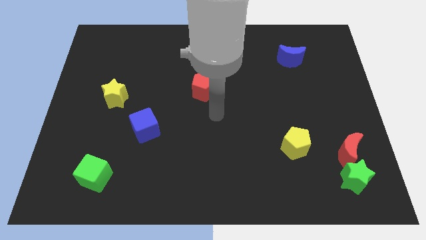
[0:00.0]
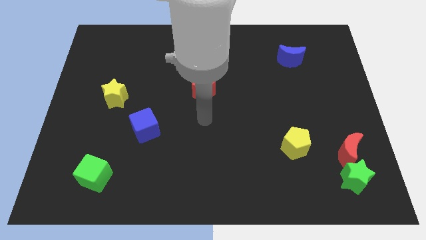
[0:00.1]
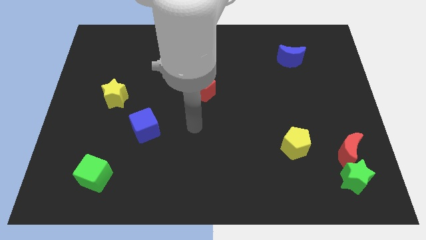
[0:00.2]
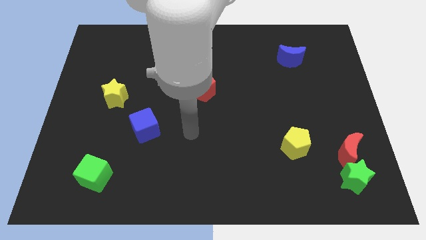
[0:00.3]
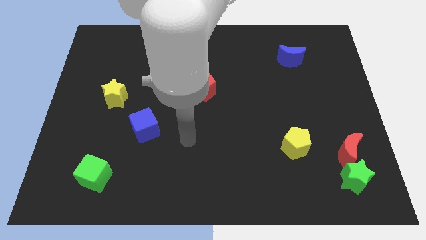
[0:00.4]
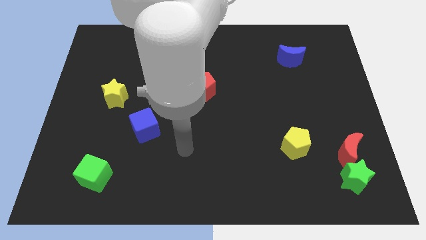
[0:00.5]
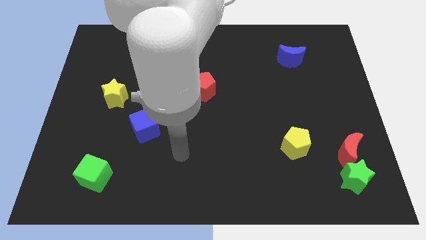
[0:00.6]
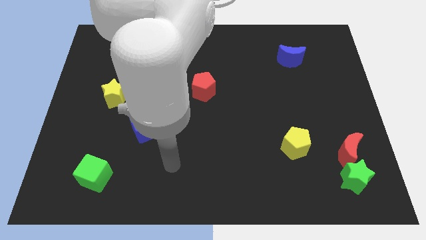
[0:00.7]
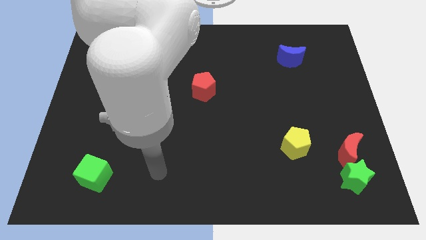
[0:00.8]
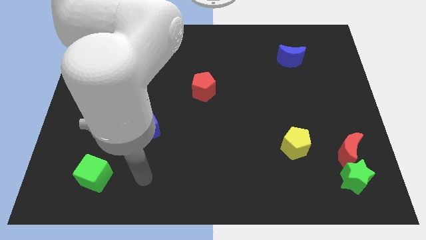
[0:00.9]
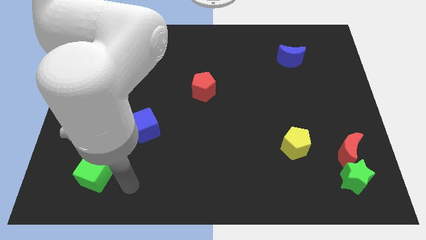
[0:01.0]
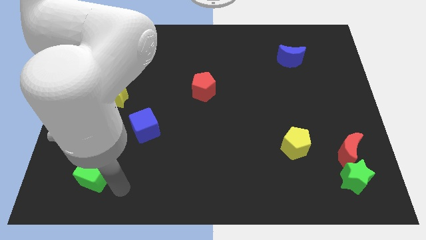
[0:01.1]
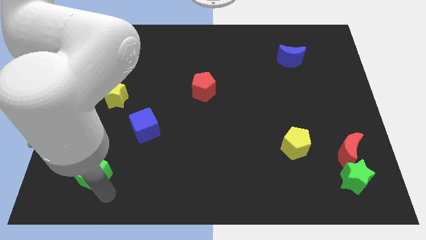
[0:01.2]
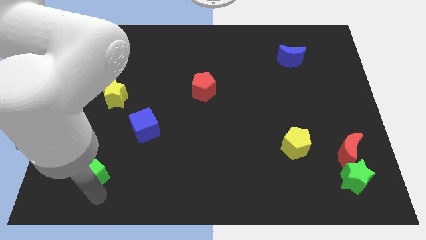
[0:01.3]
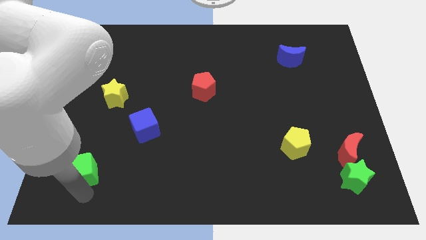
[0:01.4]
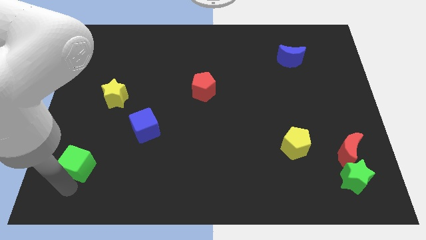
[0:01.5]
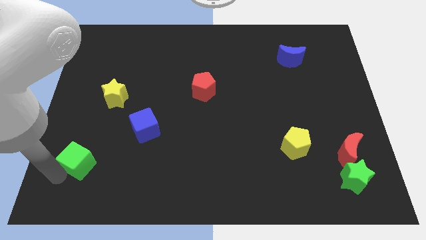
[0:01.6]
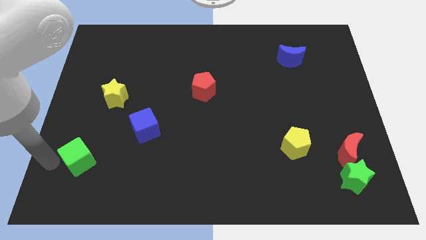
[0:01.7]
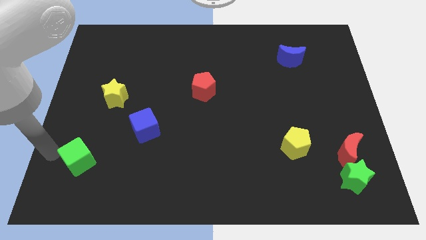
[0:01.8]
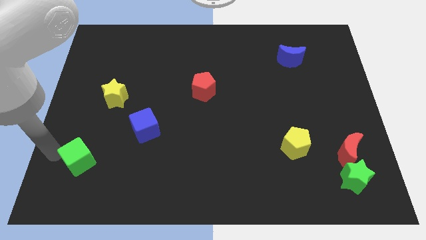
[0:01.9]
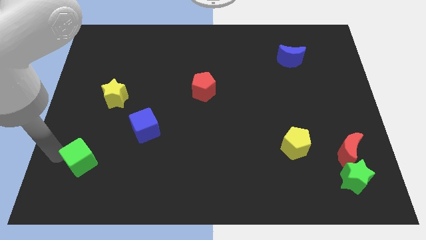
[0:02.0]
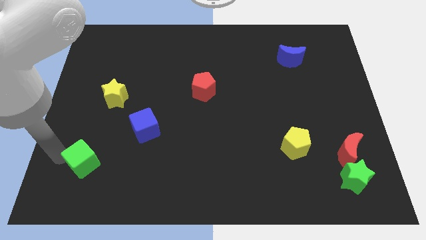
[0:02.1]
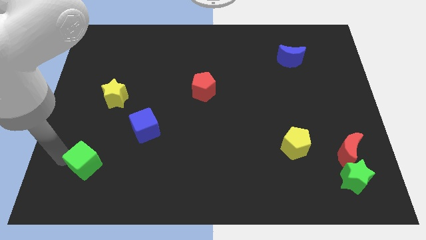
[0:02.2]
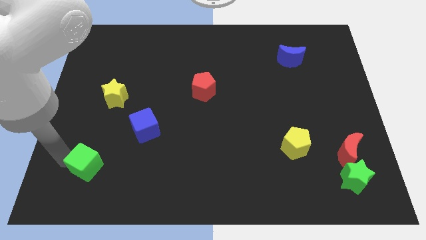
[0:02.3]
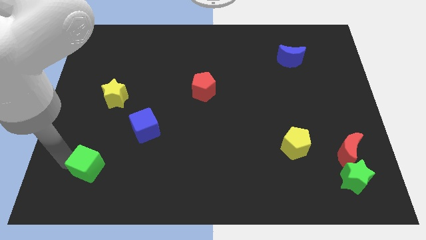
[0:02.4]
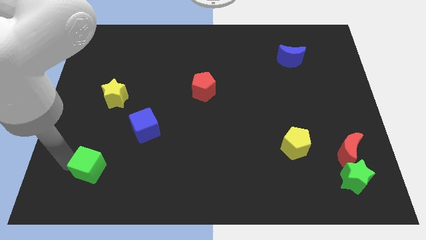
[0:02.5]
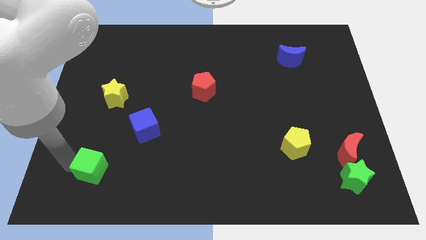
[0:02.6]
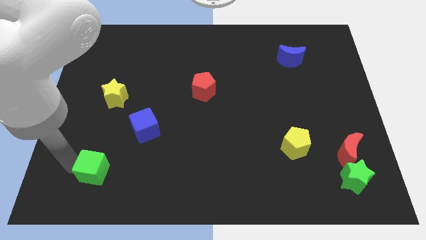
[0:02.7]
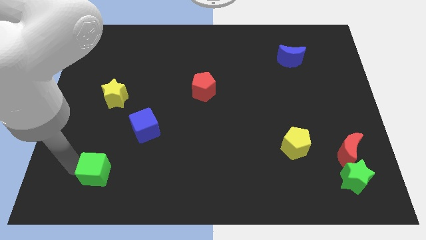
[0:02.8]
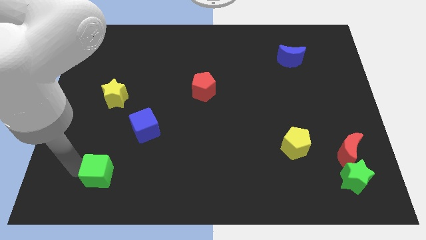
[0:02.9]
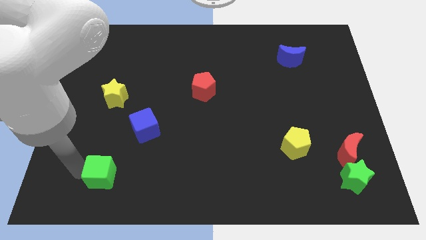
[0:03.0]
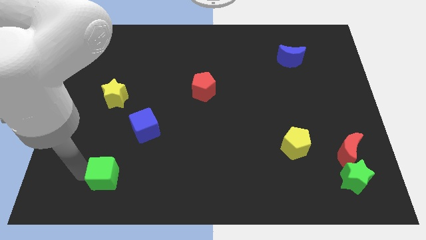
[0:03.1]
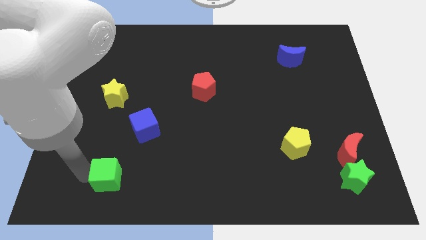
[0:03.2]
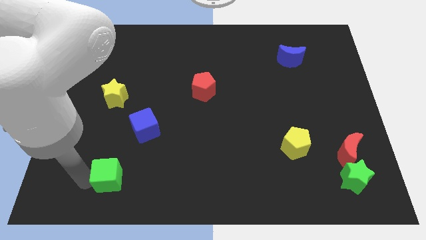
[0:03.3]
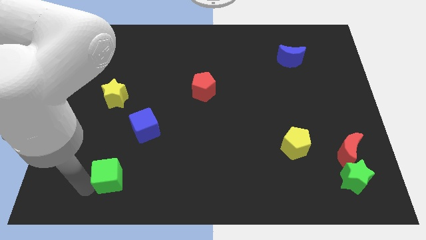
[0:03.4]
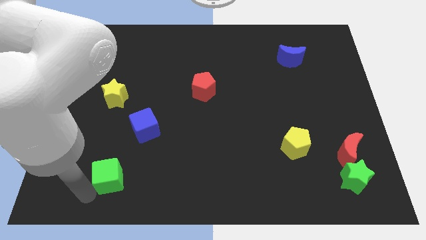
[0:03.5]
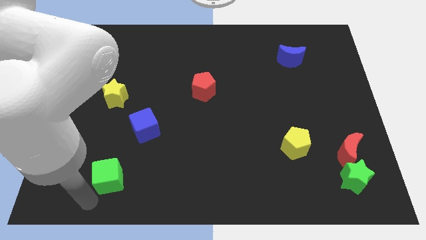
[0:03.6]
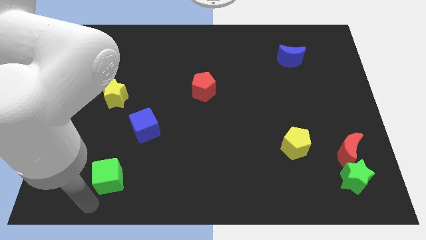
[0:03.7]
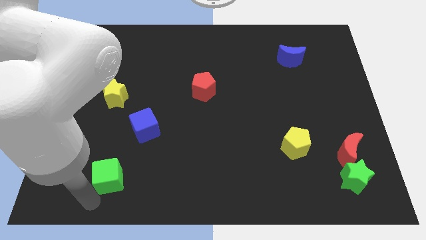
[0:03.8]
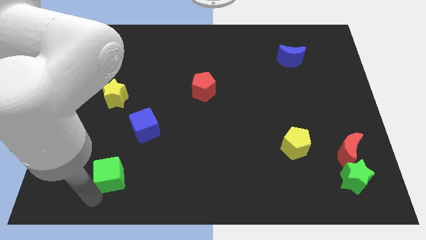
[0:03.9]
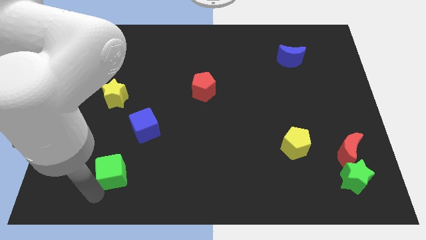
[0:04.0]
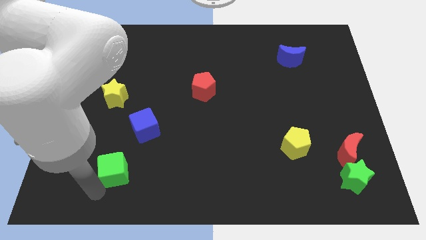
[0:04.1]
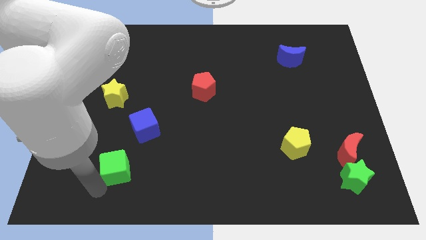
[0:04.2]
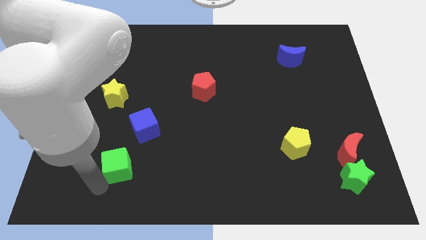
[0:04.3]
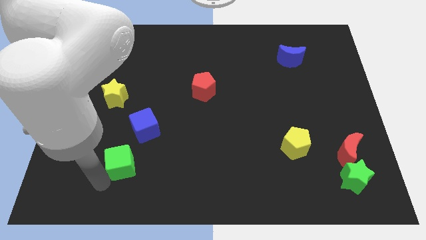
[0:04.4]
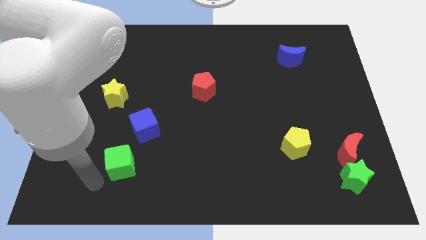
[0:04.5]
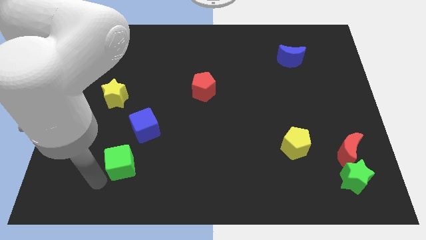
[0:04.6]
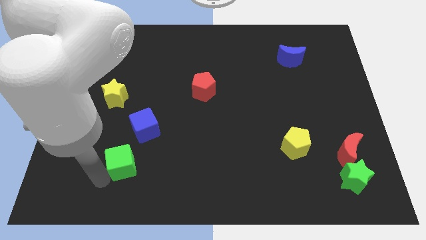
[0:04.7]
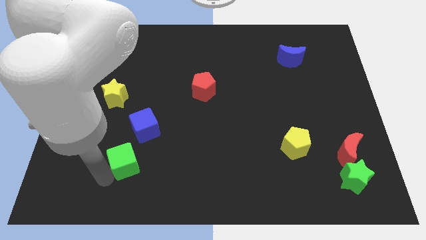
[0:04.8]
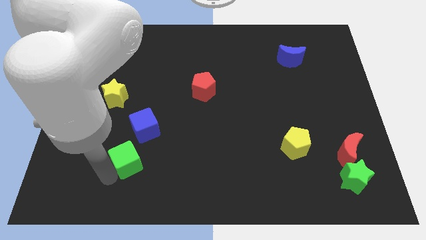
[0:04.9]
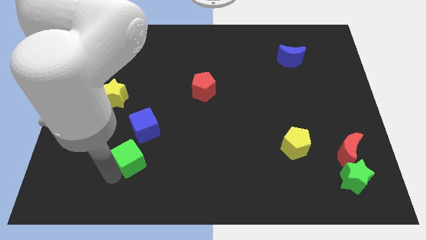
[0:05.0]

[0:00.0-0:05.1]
slightly move the green cube upwards and then right

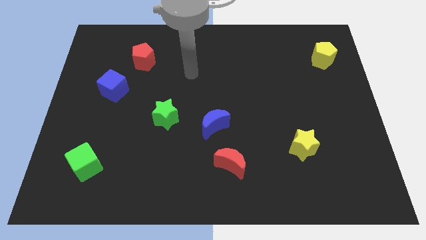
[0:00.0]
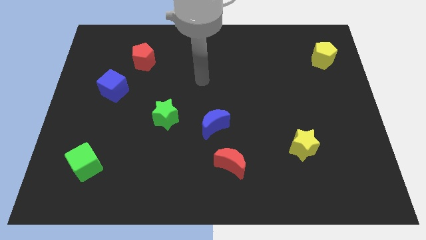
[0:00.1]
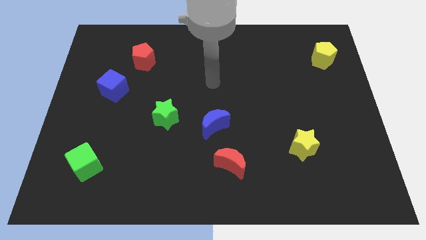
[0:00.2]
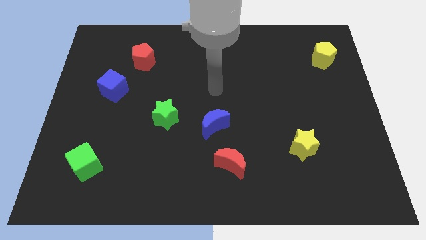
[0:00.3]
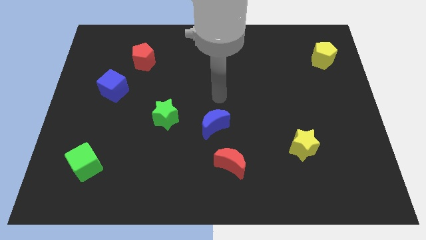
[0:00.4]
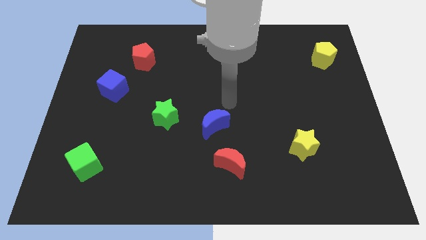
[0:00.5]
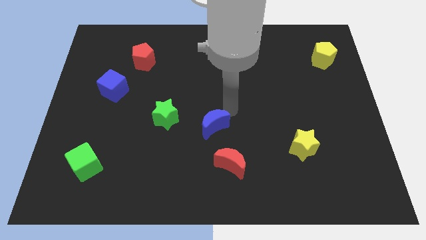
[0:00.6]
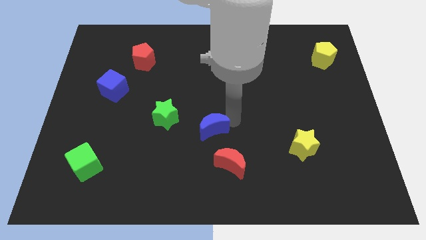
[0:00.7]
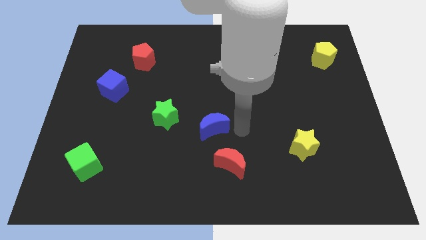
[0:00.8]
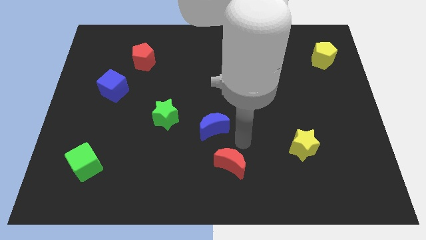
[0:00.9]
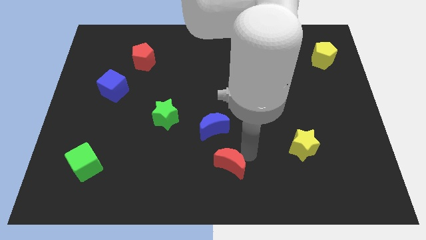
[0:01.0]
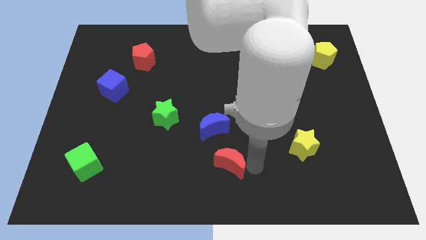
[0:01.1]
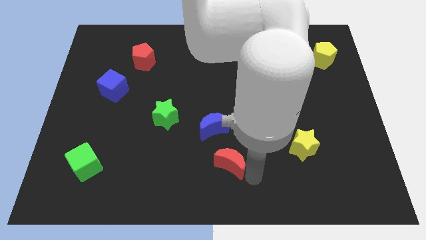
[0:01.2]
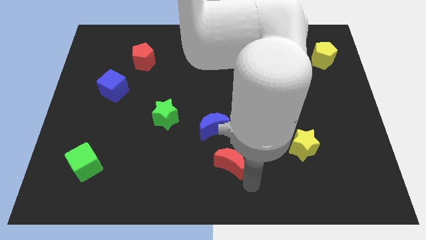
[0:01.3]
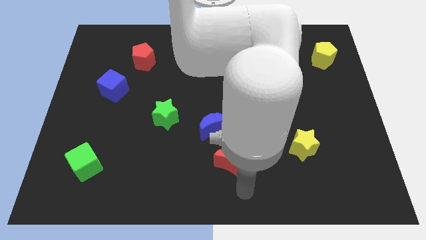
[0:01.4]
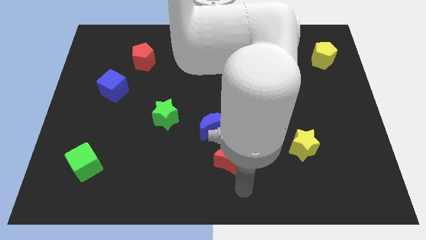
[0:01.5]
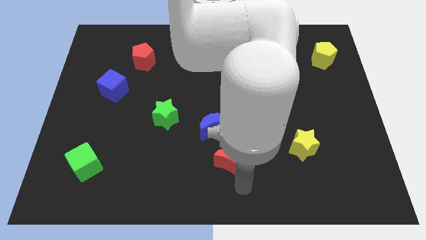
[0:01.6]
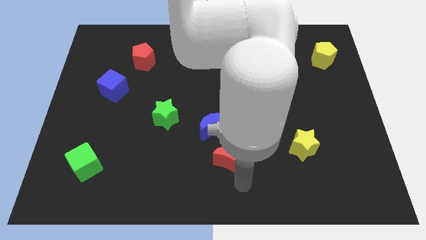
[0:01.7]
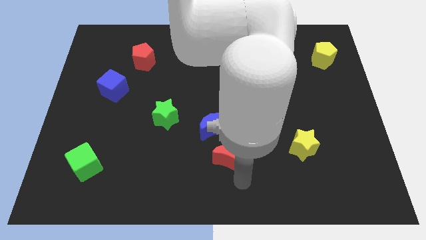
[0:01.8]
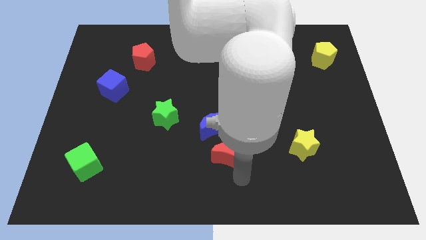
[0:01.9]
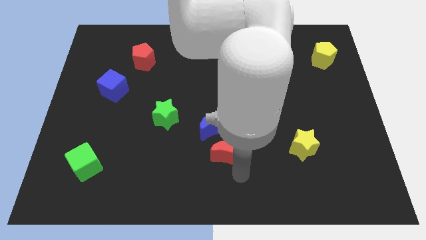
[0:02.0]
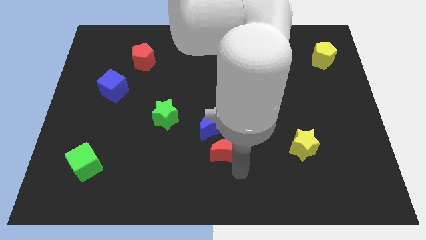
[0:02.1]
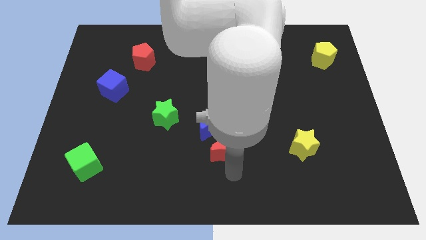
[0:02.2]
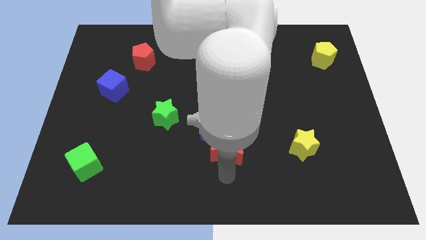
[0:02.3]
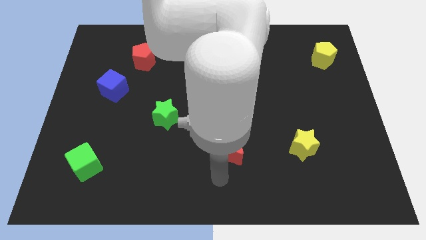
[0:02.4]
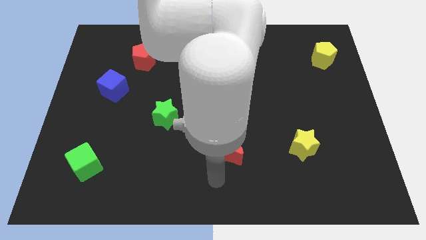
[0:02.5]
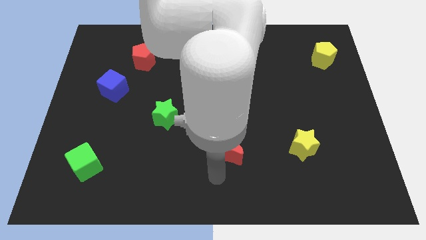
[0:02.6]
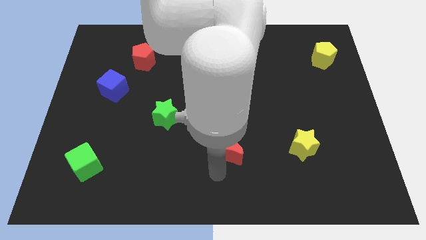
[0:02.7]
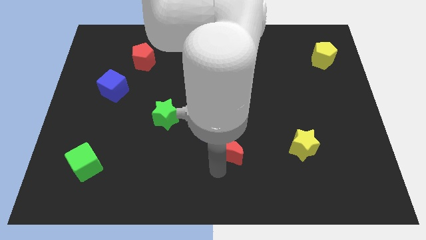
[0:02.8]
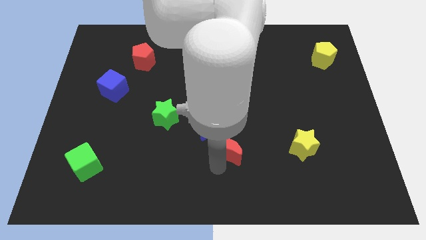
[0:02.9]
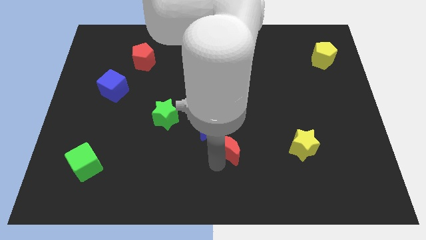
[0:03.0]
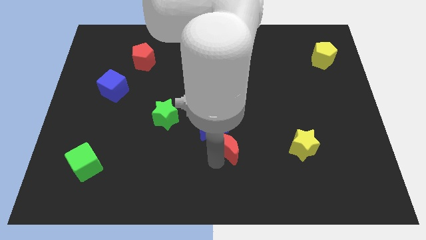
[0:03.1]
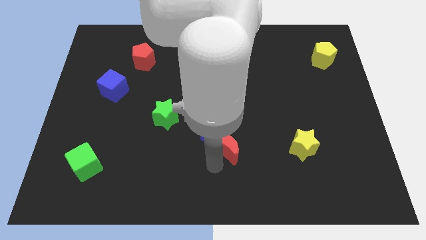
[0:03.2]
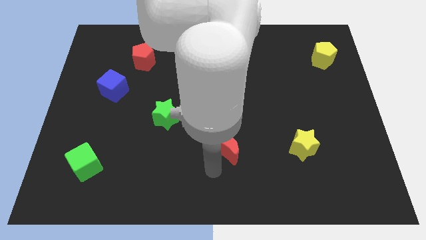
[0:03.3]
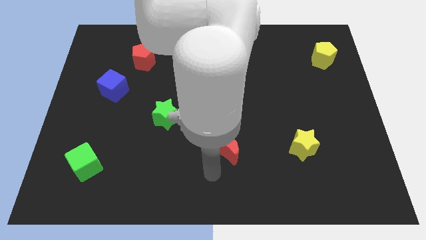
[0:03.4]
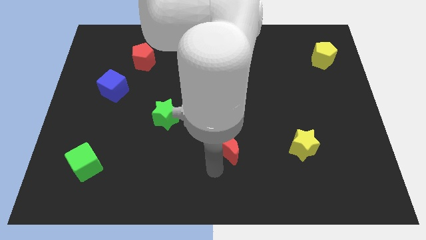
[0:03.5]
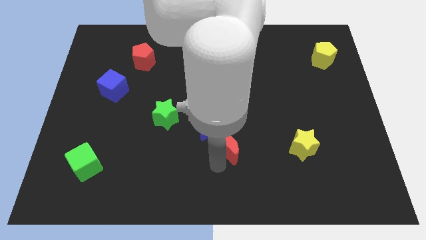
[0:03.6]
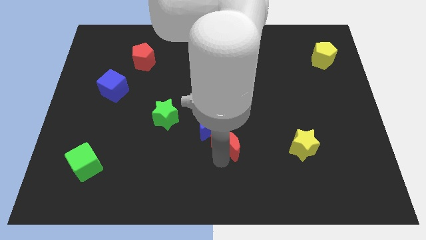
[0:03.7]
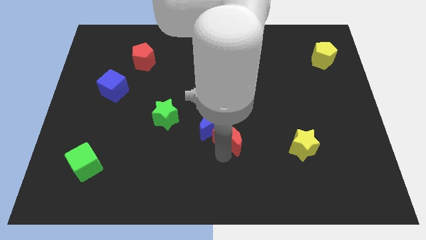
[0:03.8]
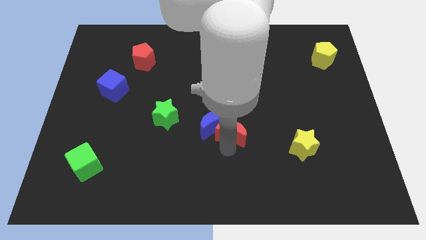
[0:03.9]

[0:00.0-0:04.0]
slightly move the red moon upwards
